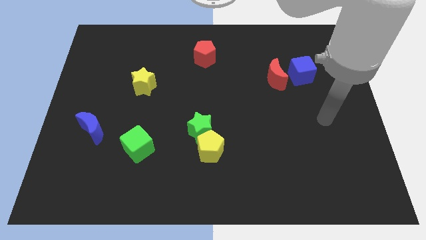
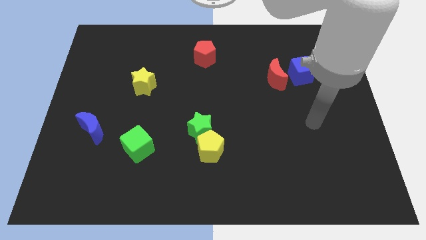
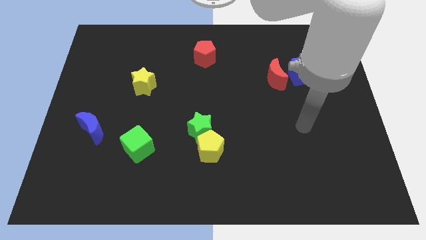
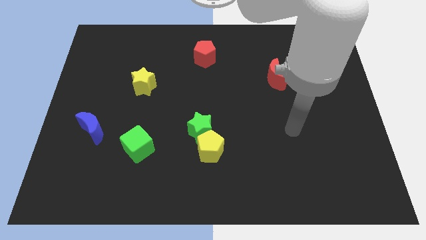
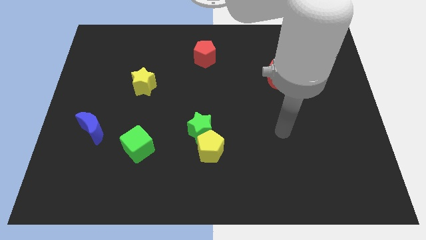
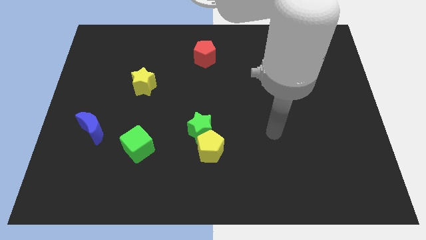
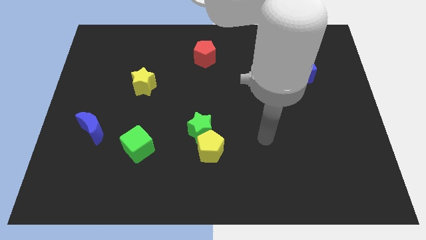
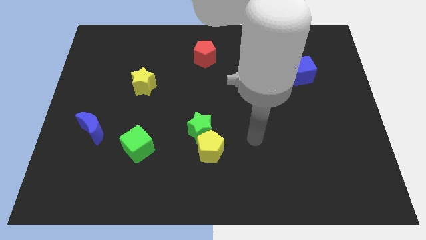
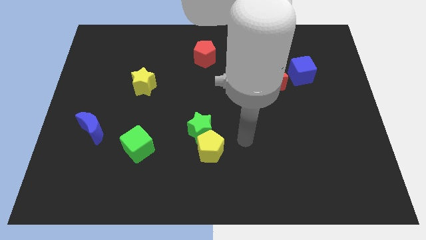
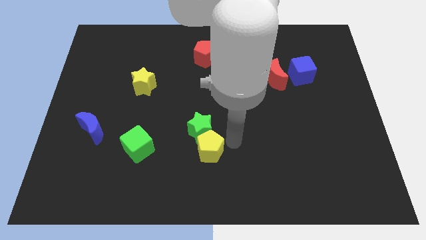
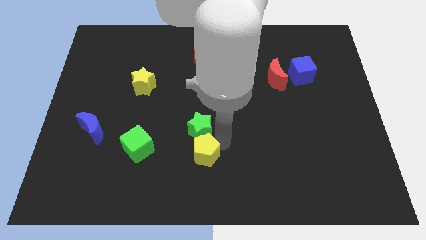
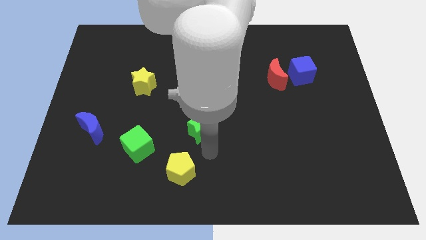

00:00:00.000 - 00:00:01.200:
pull the green star apart from the yellow pentagon

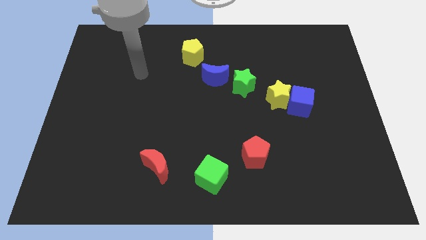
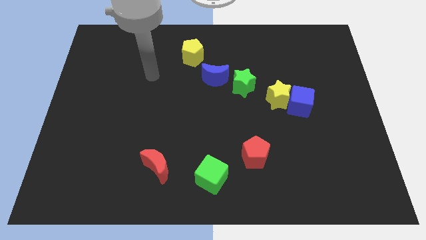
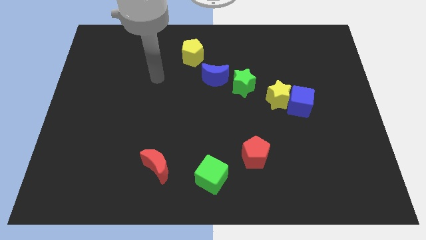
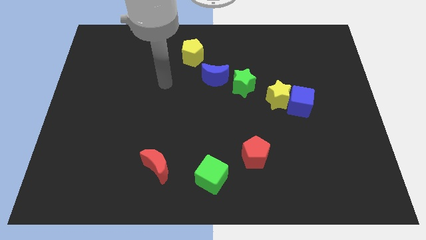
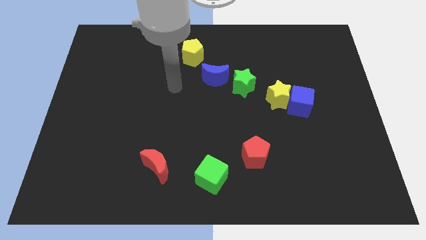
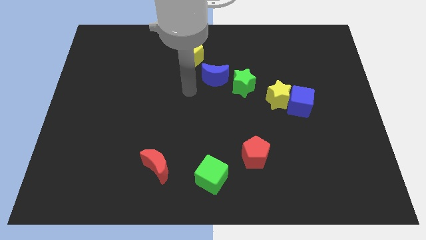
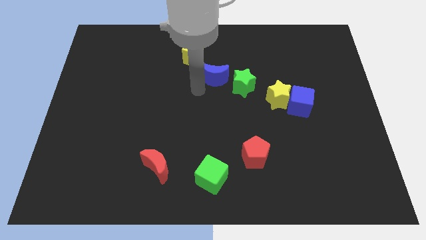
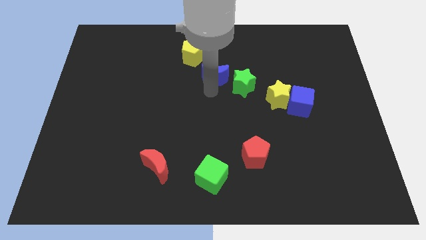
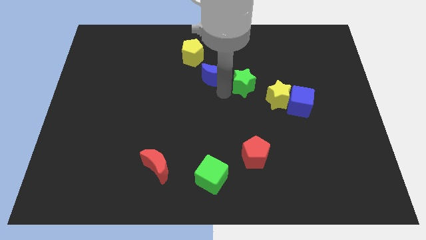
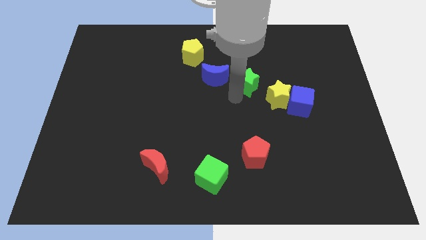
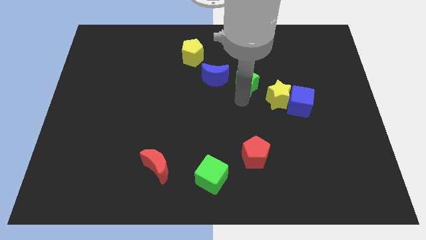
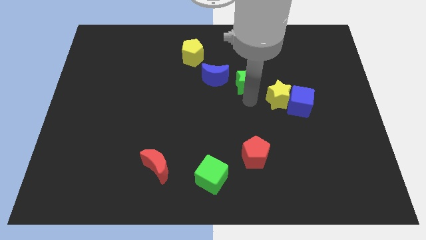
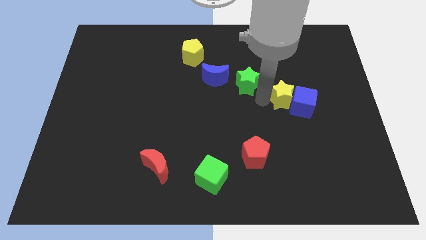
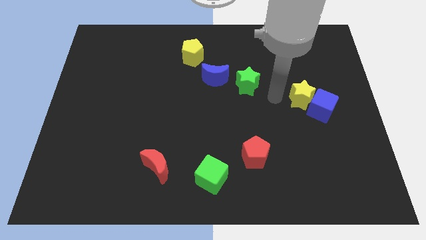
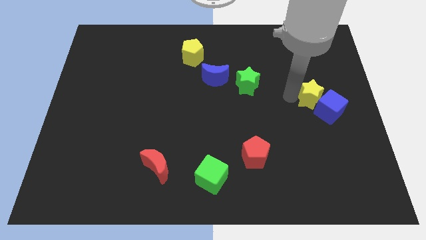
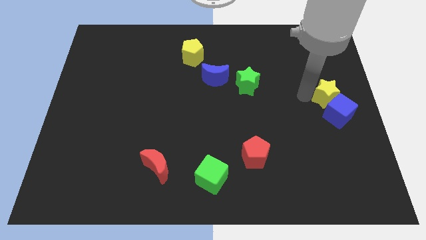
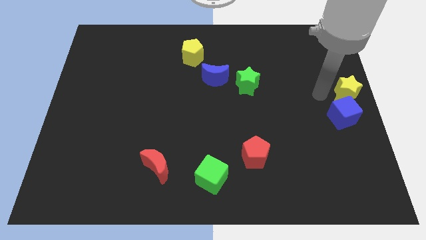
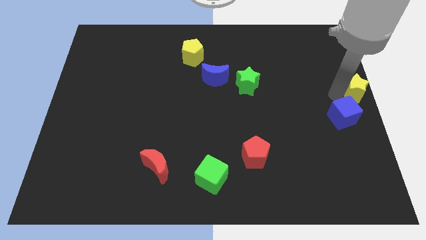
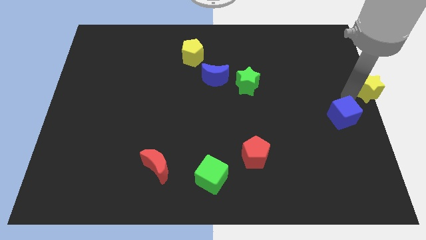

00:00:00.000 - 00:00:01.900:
separate the blue cube from the yellow star

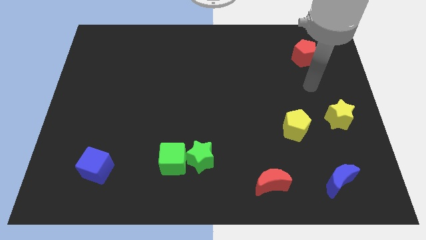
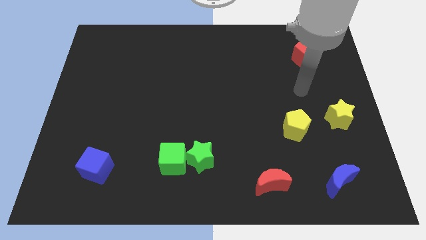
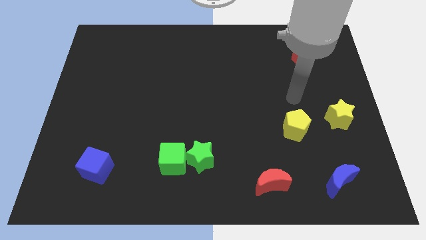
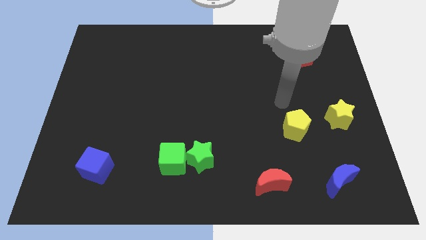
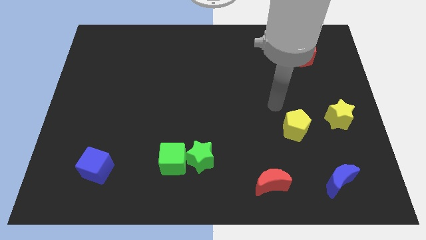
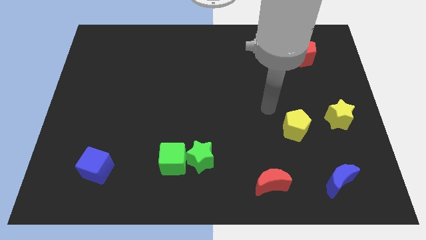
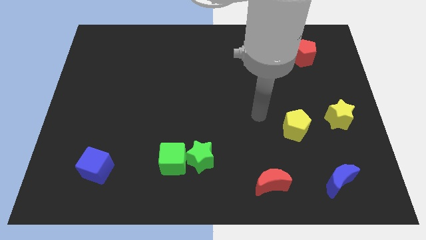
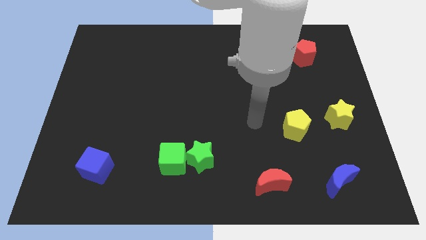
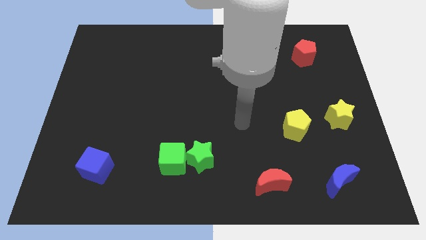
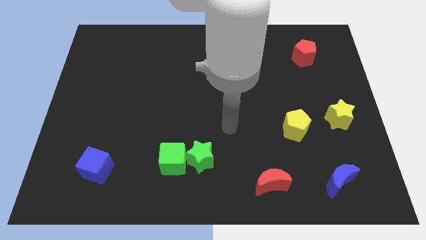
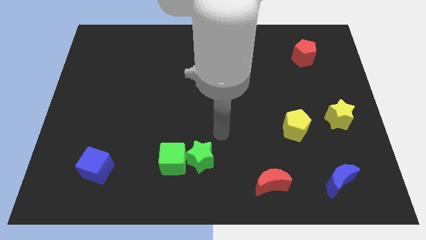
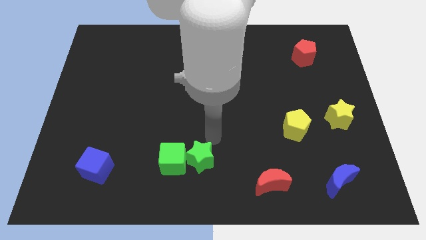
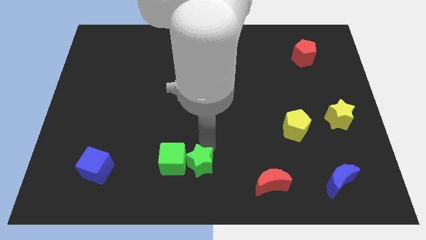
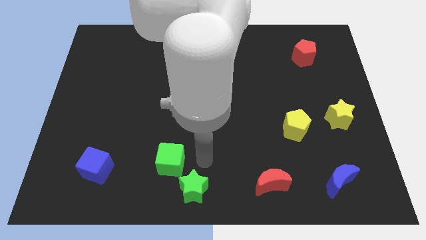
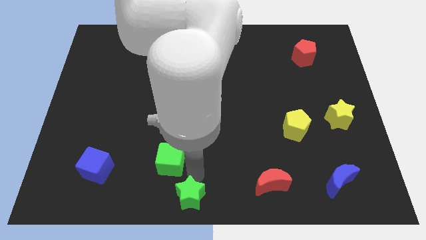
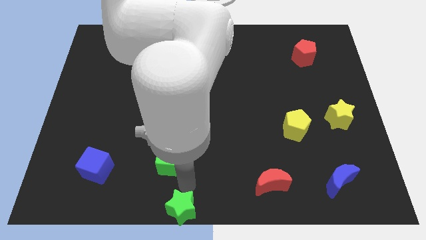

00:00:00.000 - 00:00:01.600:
separate the green cube from the green star

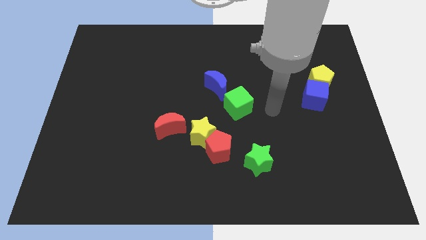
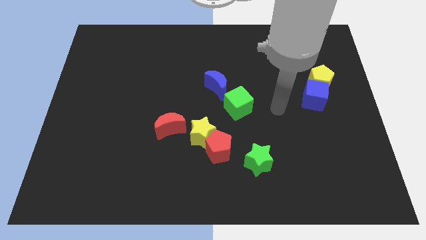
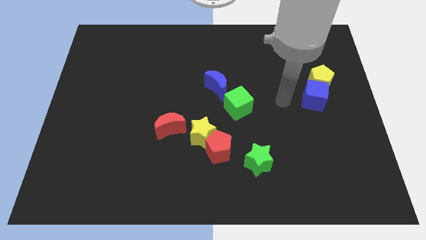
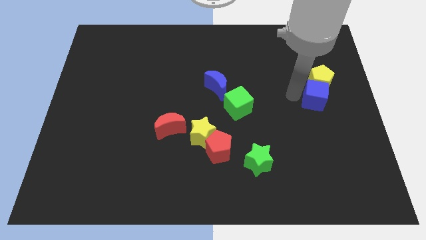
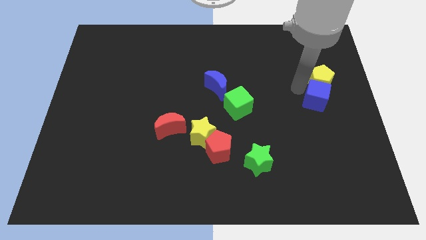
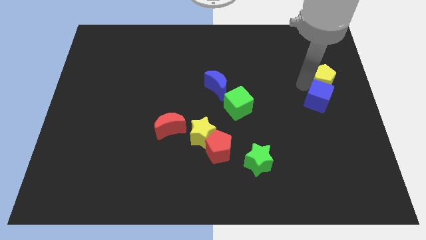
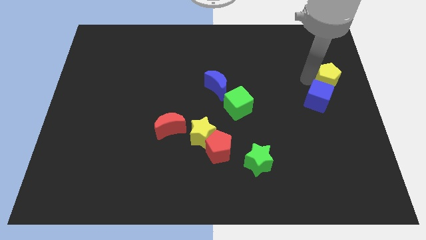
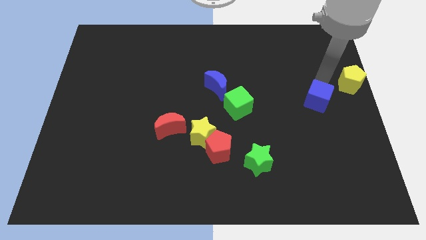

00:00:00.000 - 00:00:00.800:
move the blue cube away from the yellow pentagon

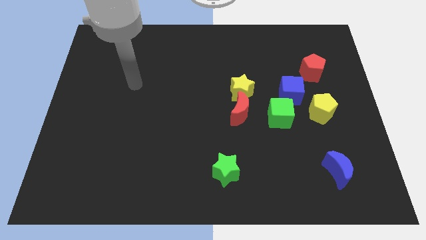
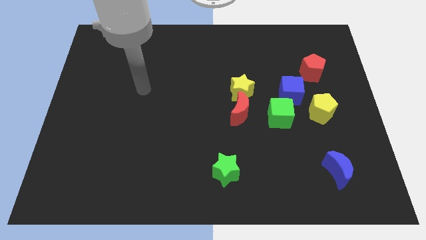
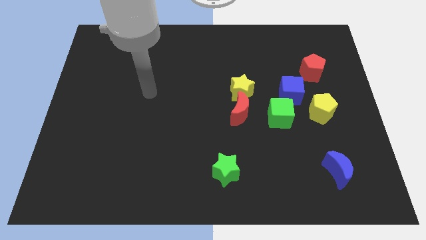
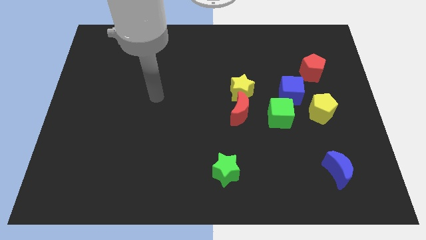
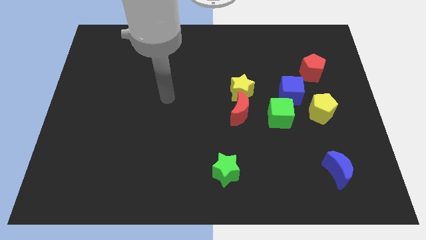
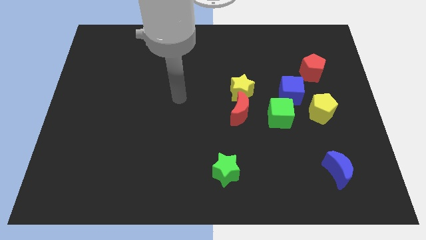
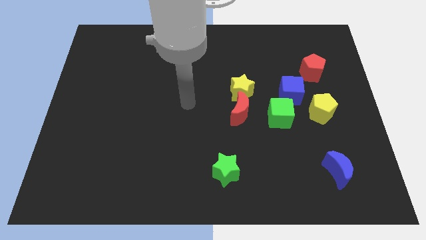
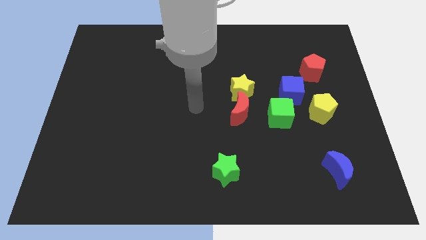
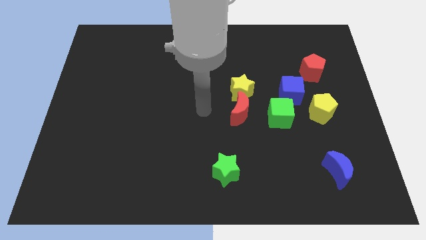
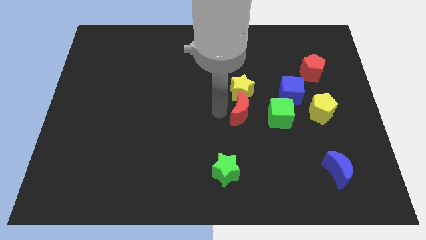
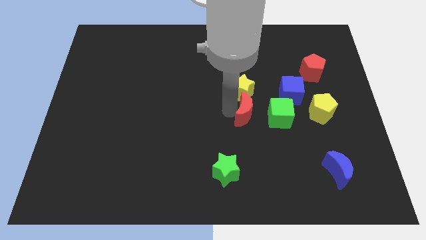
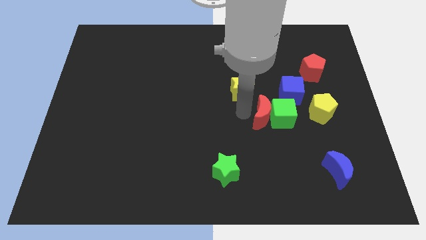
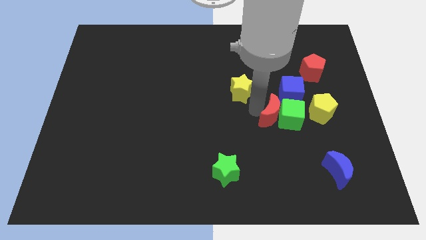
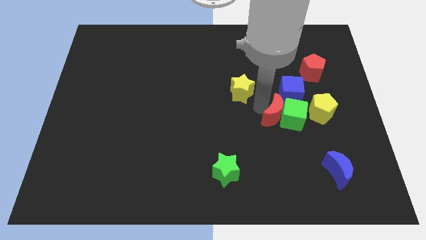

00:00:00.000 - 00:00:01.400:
pull the yellow star apart from the red moon

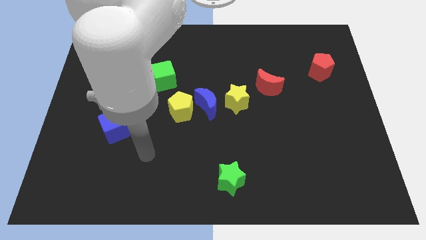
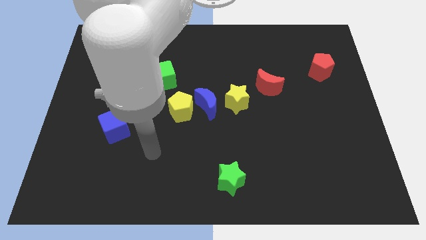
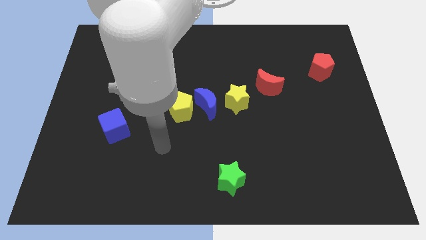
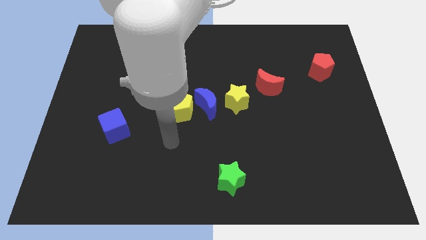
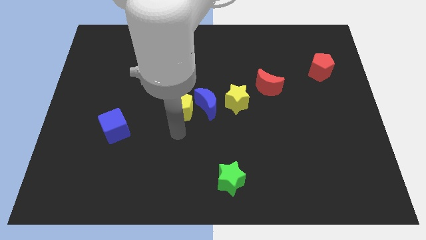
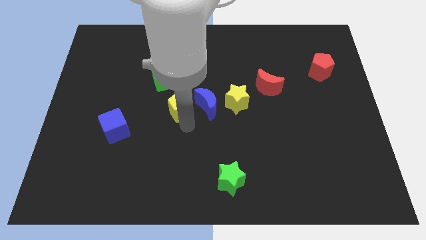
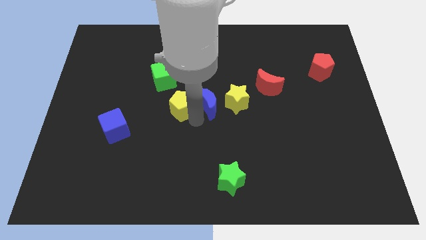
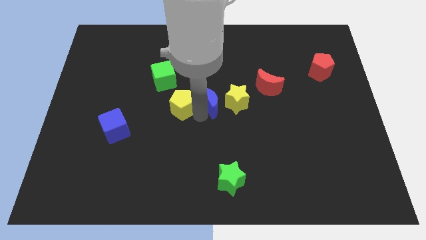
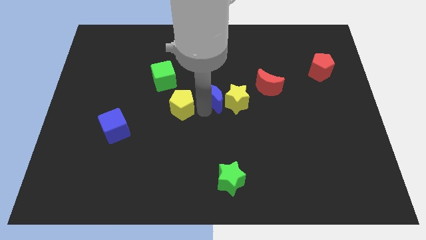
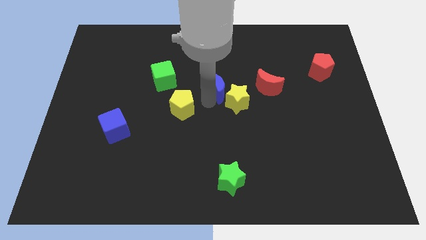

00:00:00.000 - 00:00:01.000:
move the yellow pentagon away from the blue moon

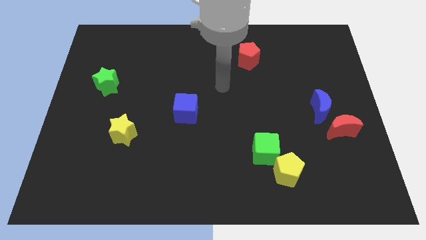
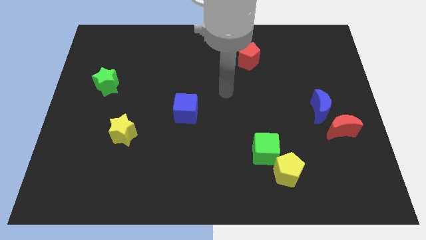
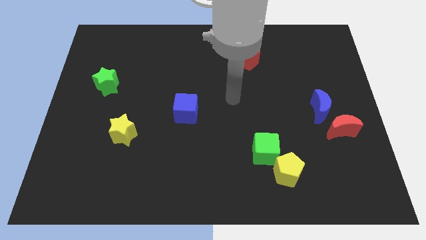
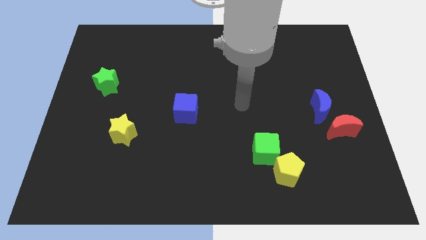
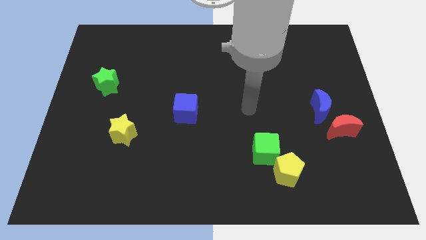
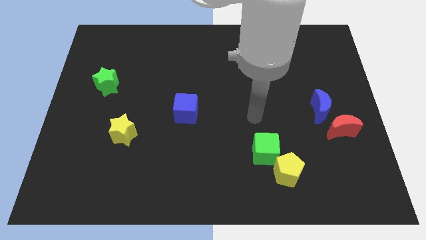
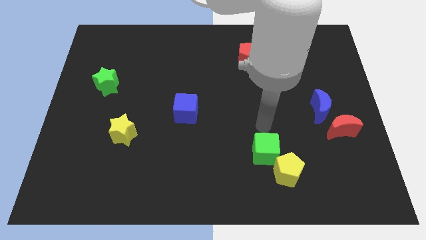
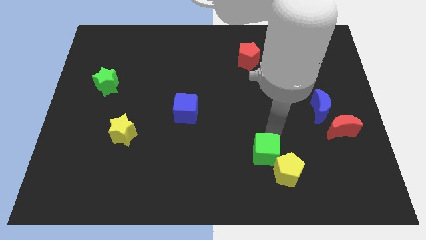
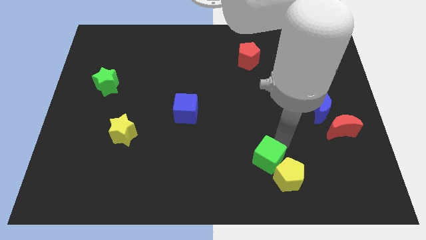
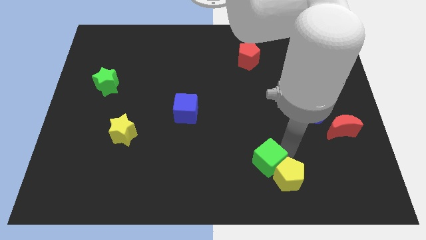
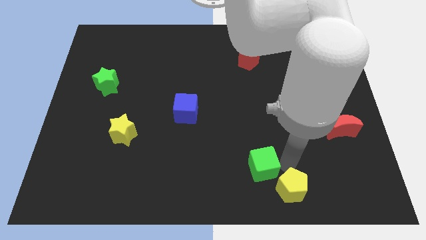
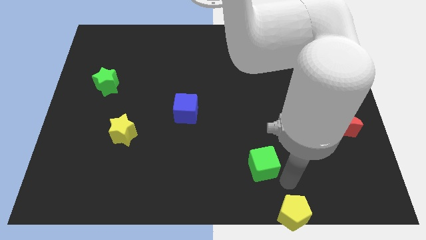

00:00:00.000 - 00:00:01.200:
move the green cube away from the yellow pentagon

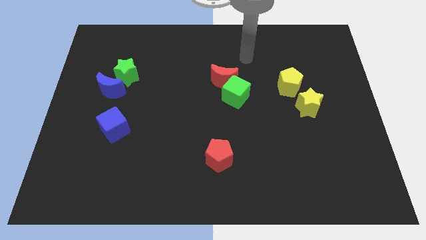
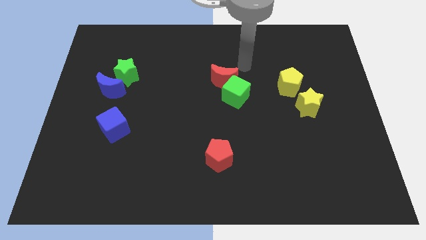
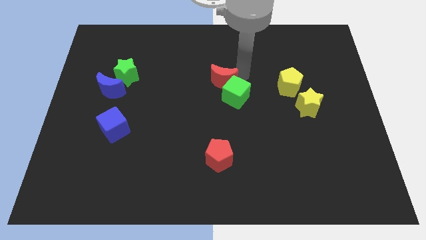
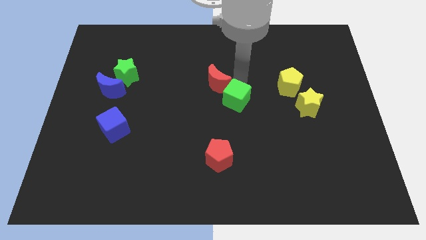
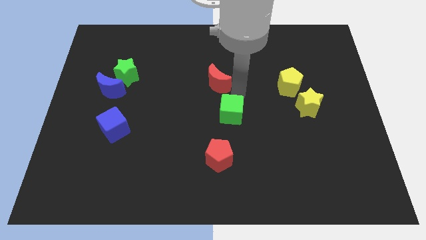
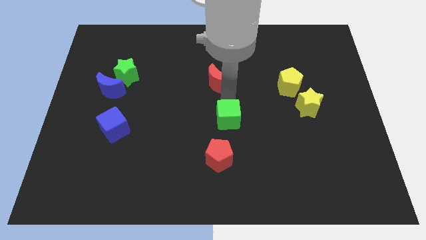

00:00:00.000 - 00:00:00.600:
move the red moon away from the green cube
